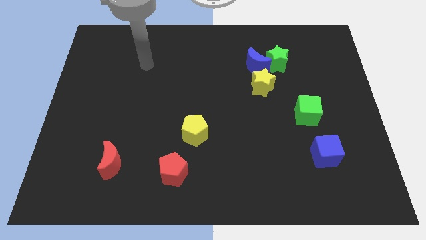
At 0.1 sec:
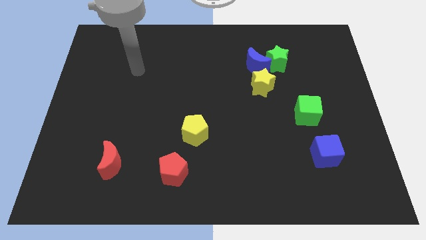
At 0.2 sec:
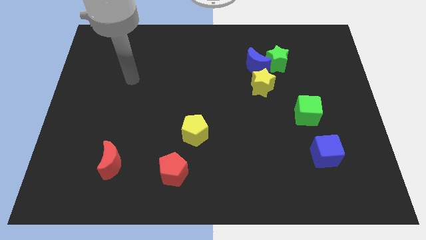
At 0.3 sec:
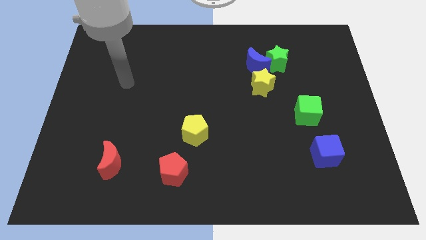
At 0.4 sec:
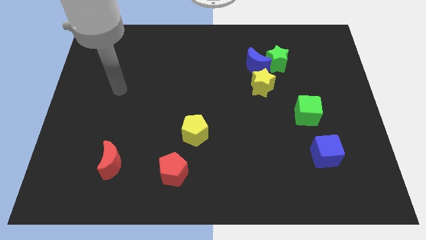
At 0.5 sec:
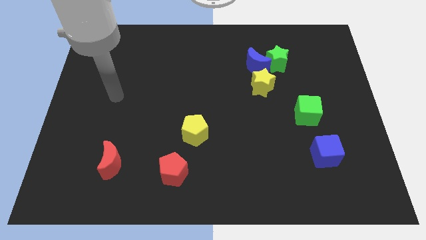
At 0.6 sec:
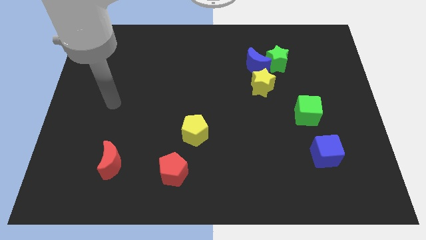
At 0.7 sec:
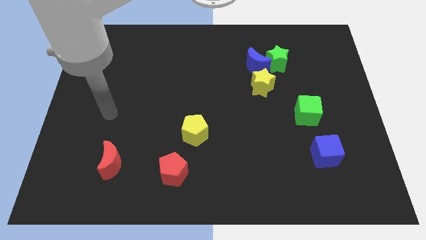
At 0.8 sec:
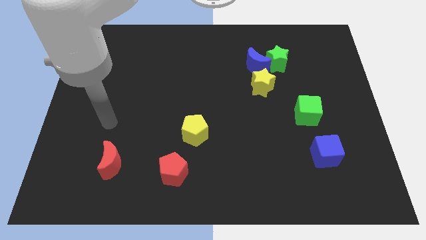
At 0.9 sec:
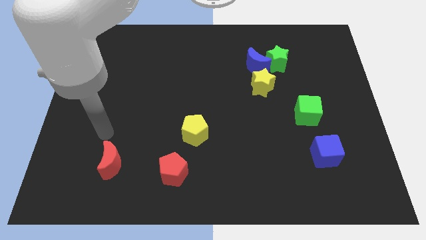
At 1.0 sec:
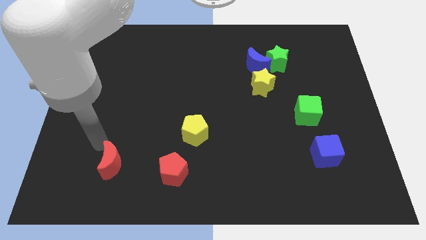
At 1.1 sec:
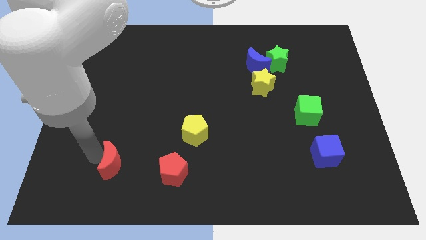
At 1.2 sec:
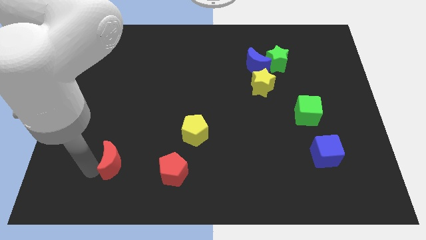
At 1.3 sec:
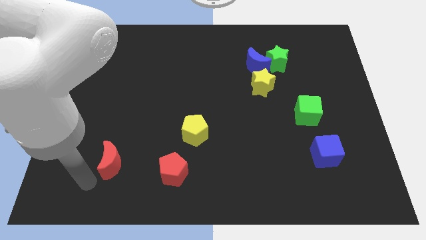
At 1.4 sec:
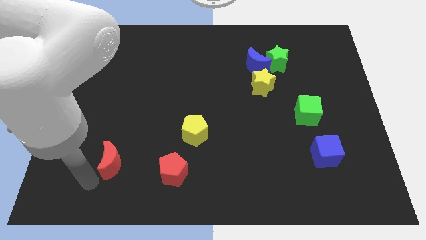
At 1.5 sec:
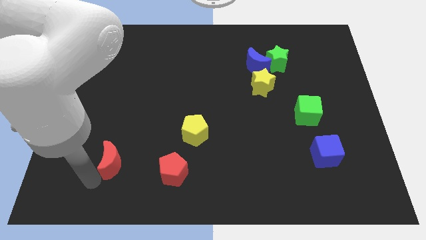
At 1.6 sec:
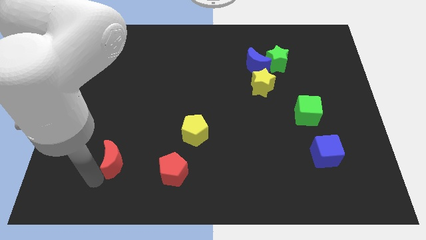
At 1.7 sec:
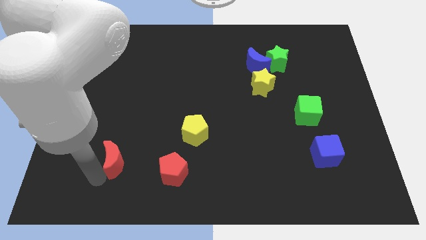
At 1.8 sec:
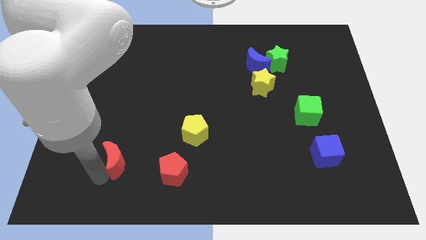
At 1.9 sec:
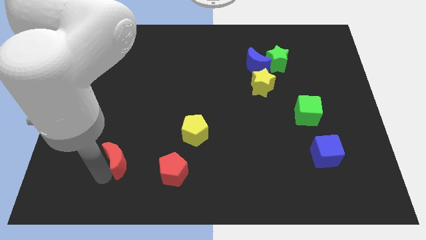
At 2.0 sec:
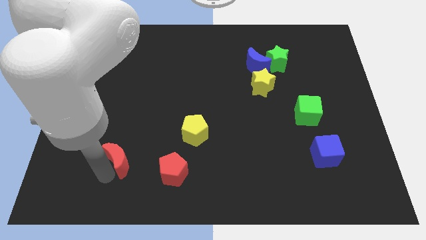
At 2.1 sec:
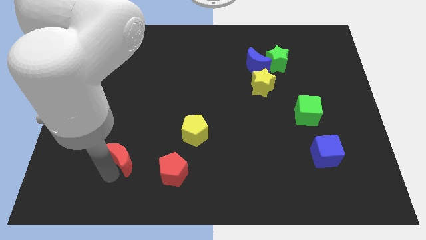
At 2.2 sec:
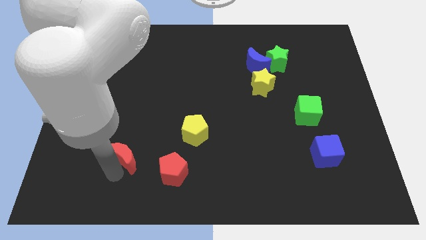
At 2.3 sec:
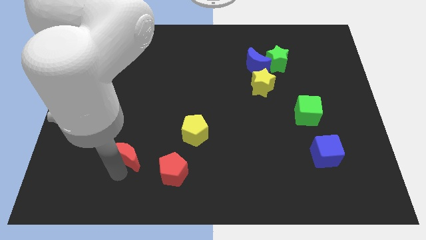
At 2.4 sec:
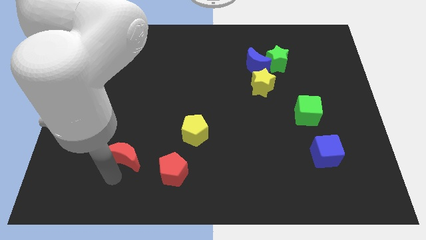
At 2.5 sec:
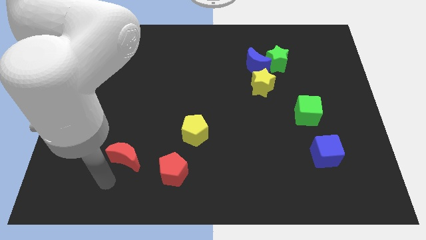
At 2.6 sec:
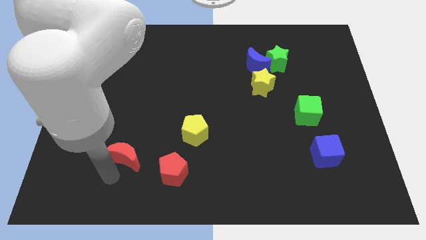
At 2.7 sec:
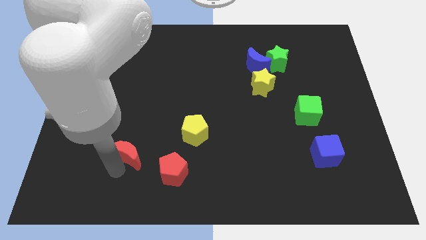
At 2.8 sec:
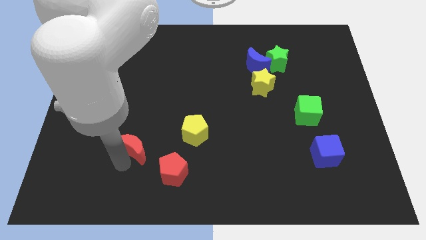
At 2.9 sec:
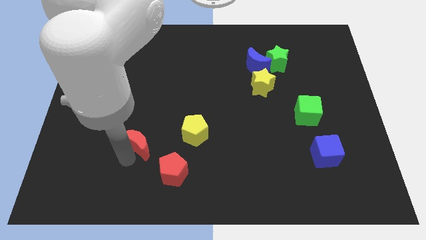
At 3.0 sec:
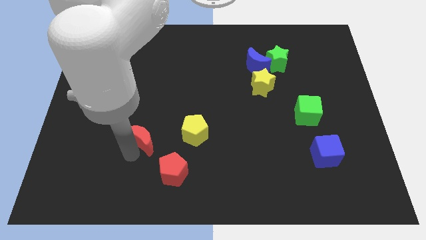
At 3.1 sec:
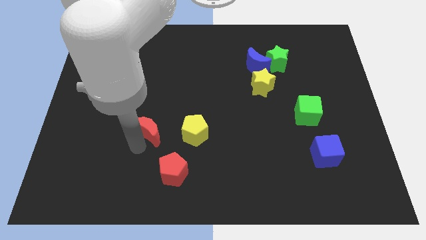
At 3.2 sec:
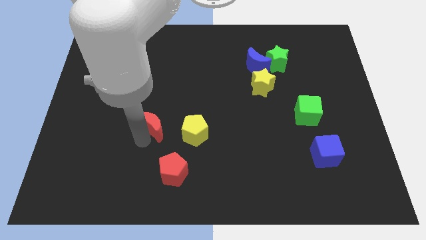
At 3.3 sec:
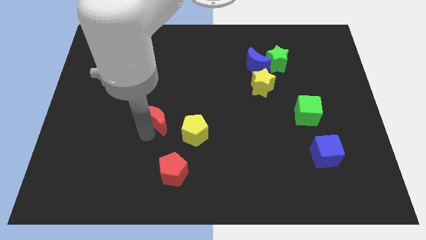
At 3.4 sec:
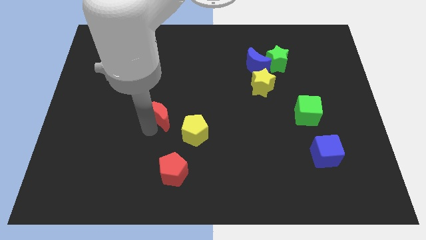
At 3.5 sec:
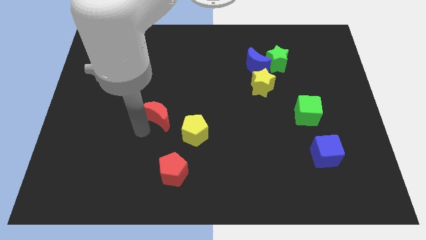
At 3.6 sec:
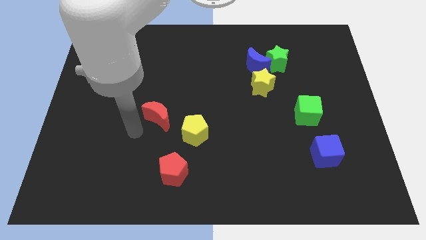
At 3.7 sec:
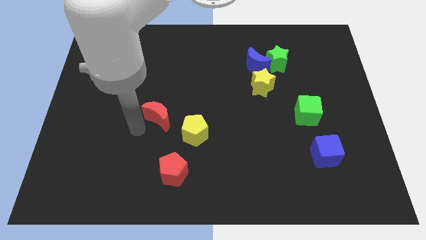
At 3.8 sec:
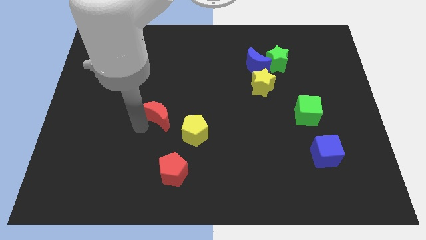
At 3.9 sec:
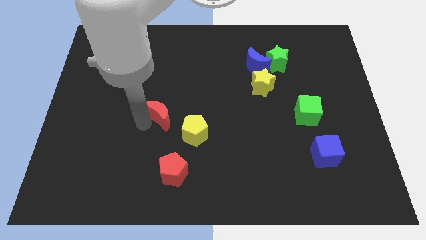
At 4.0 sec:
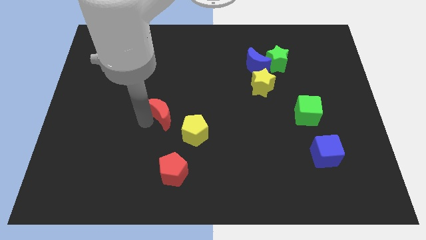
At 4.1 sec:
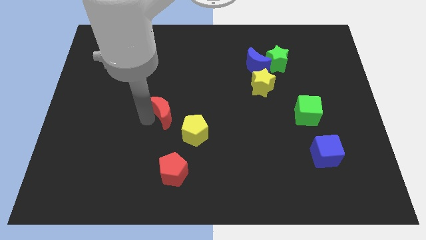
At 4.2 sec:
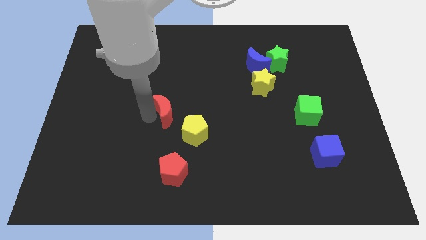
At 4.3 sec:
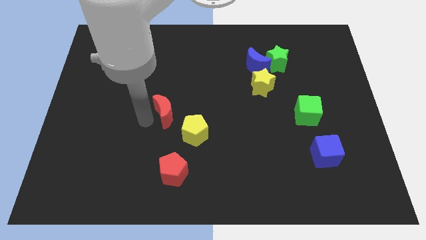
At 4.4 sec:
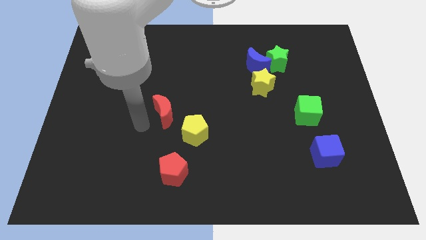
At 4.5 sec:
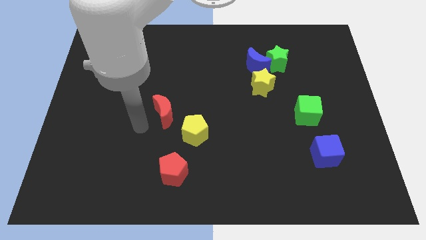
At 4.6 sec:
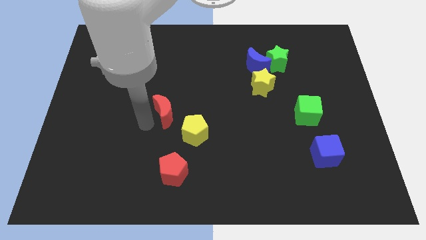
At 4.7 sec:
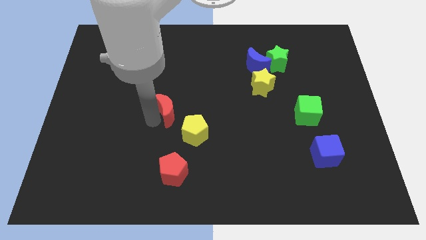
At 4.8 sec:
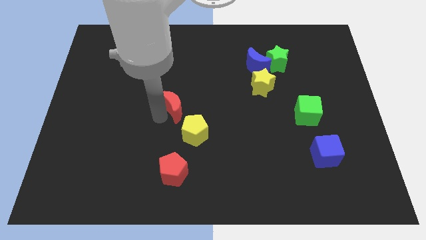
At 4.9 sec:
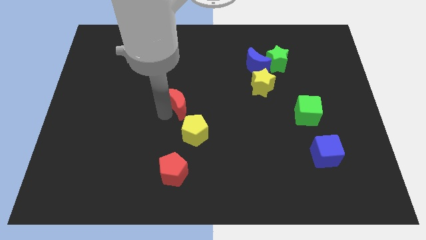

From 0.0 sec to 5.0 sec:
move the red moon upwards and to the right

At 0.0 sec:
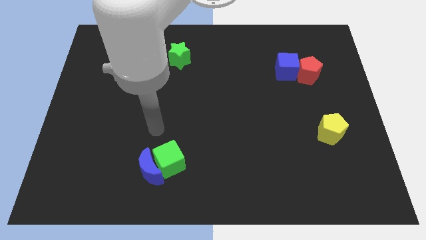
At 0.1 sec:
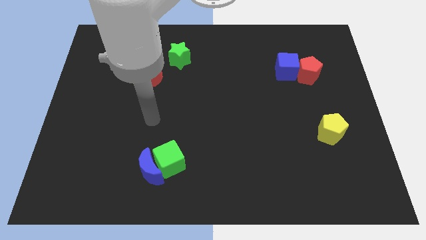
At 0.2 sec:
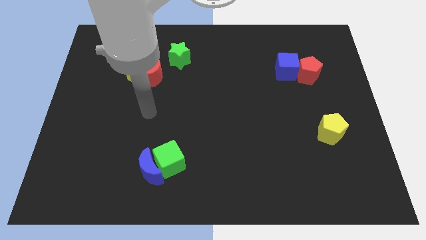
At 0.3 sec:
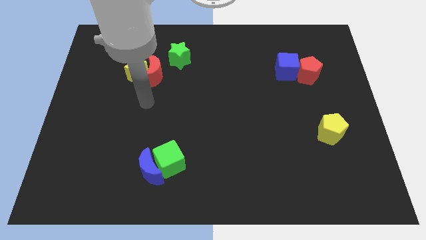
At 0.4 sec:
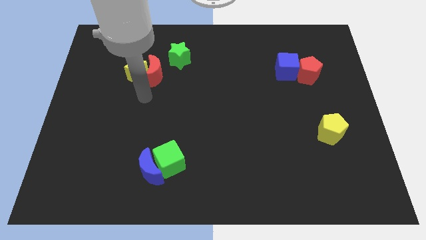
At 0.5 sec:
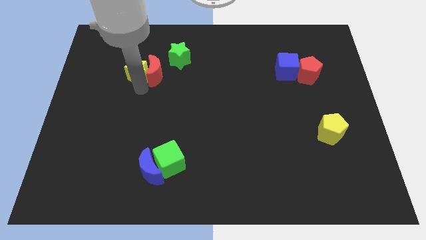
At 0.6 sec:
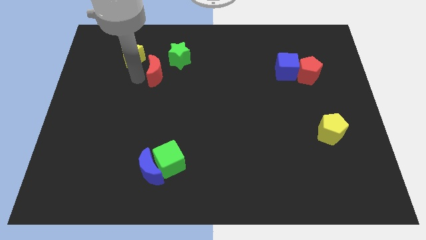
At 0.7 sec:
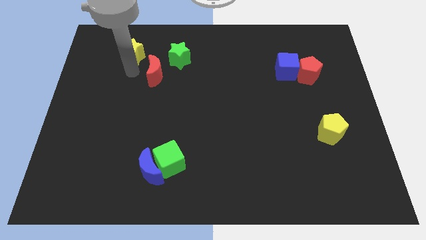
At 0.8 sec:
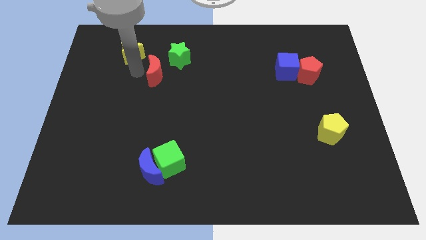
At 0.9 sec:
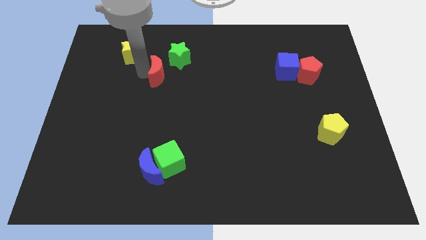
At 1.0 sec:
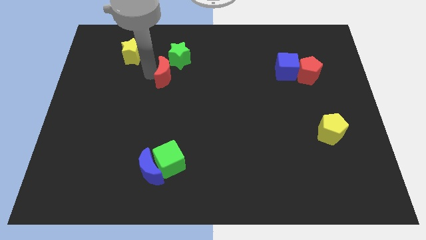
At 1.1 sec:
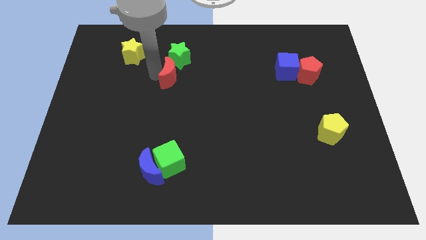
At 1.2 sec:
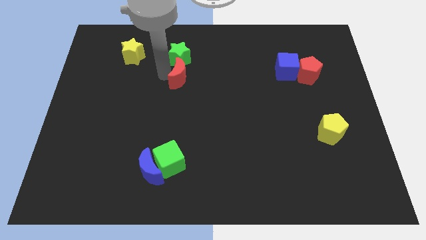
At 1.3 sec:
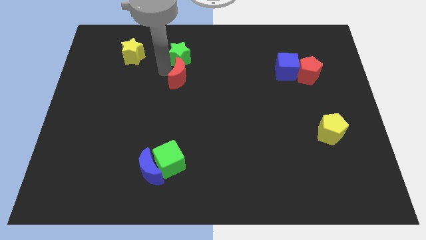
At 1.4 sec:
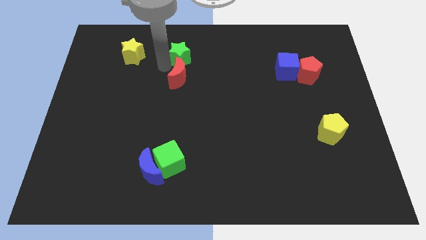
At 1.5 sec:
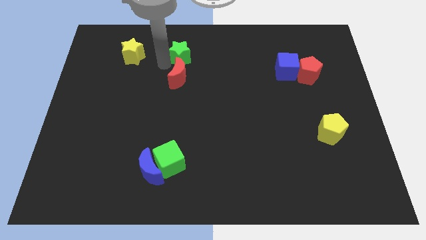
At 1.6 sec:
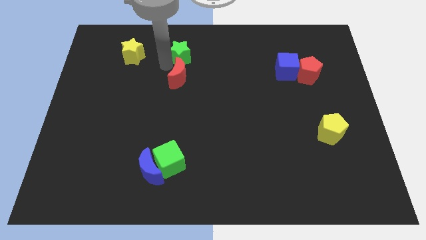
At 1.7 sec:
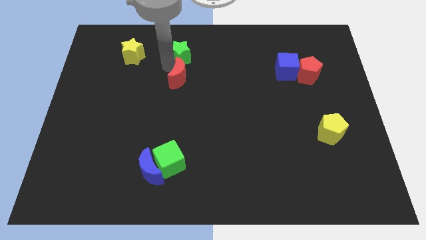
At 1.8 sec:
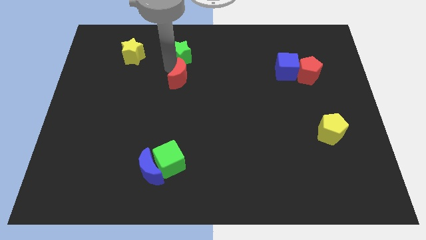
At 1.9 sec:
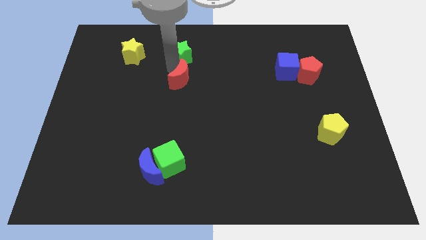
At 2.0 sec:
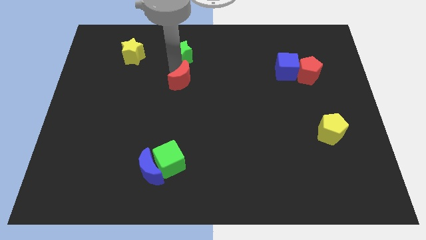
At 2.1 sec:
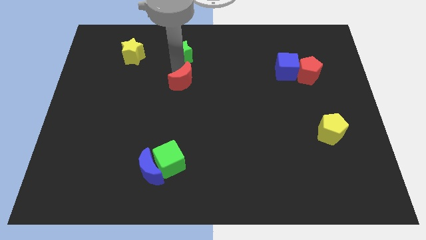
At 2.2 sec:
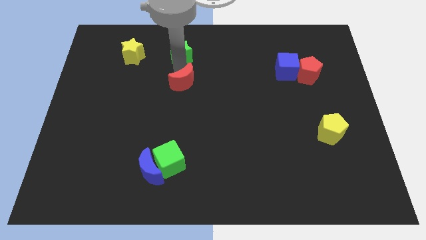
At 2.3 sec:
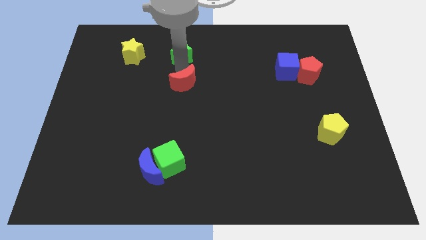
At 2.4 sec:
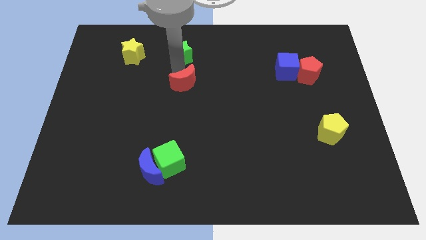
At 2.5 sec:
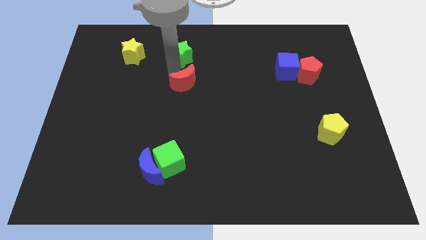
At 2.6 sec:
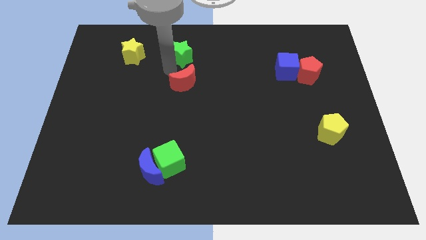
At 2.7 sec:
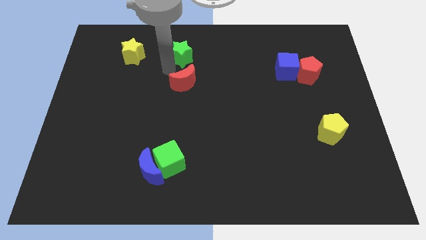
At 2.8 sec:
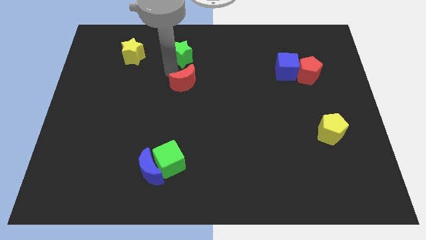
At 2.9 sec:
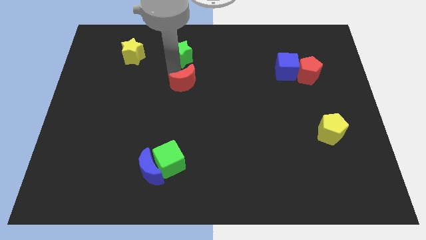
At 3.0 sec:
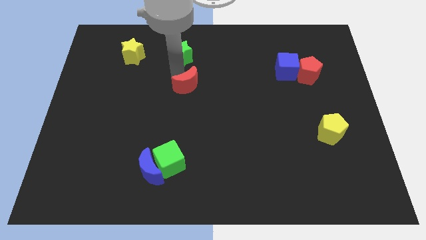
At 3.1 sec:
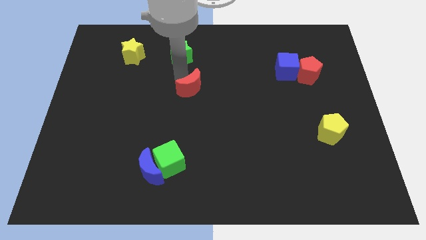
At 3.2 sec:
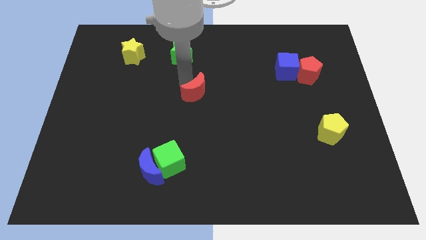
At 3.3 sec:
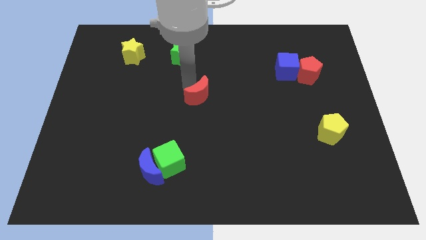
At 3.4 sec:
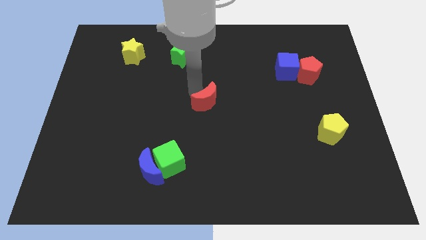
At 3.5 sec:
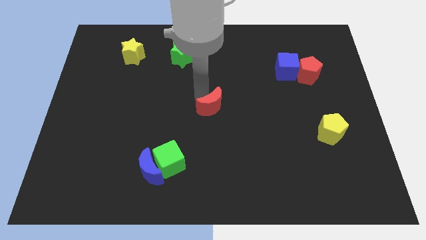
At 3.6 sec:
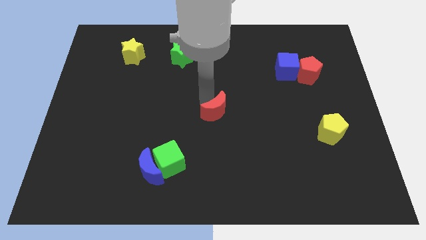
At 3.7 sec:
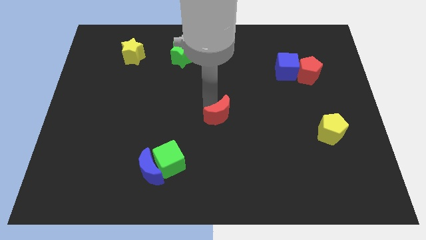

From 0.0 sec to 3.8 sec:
move the red moon downwards and right
